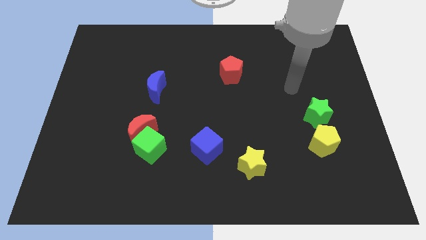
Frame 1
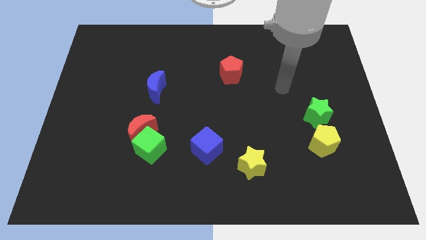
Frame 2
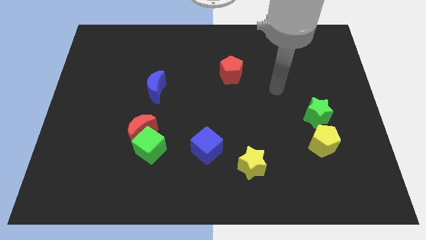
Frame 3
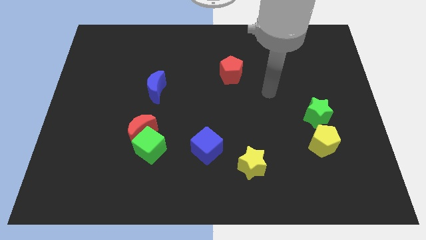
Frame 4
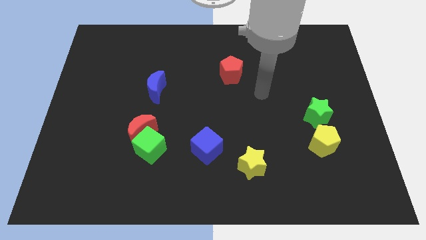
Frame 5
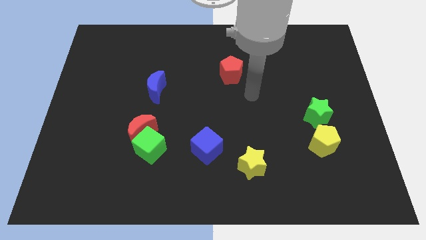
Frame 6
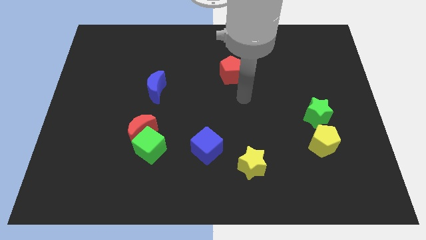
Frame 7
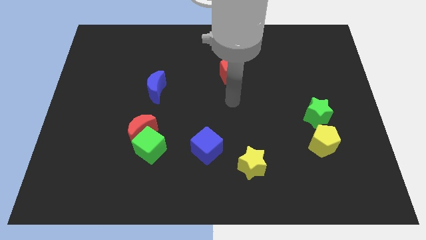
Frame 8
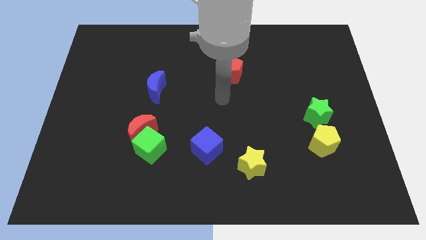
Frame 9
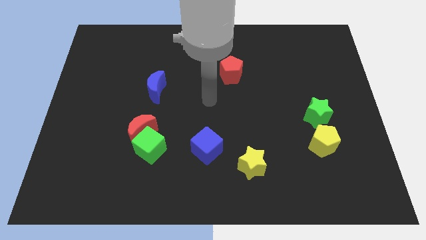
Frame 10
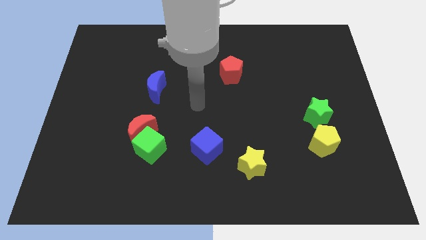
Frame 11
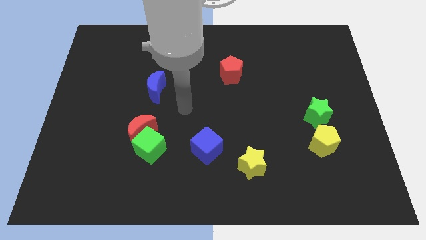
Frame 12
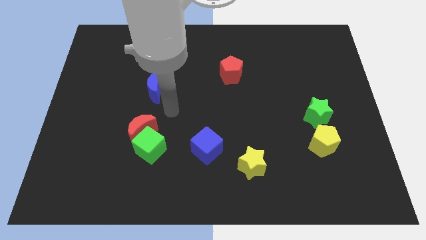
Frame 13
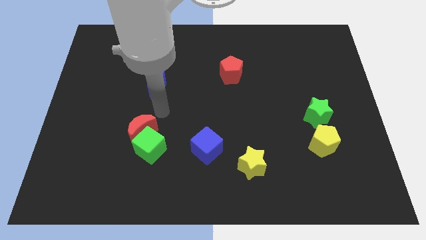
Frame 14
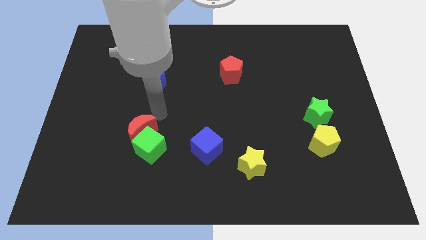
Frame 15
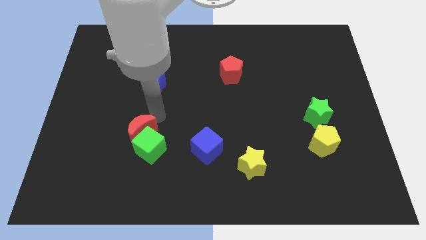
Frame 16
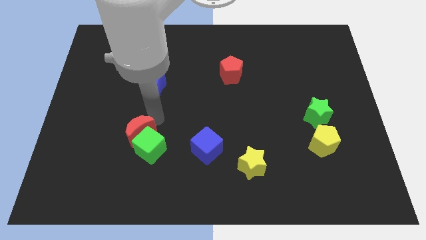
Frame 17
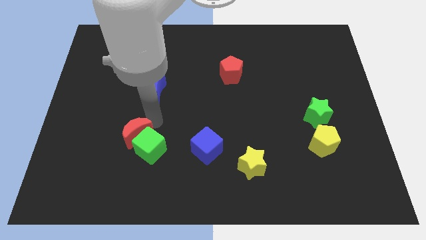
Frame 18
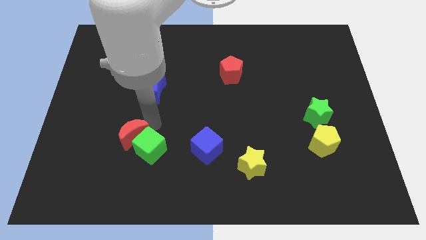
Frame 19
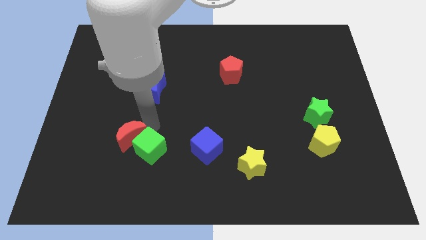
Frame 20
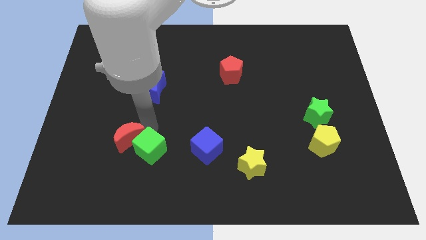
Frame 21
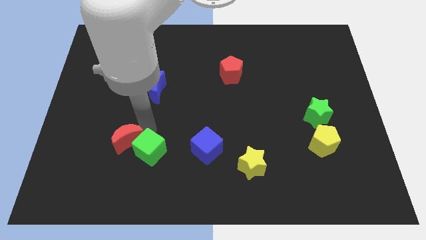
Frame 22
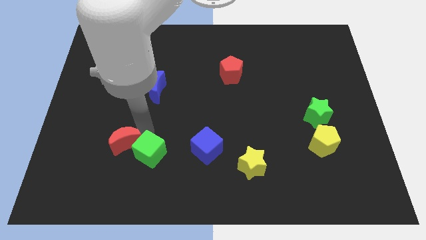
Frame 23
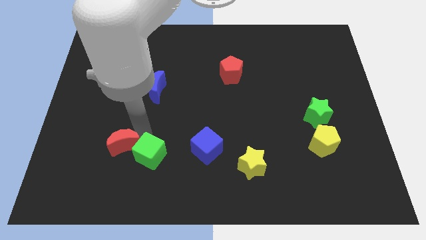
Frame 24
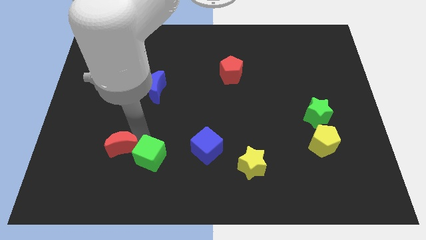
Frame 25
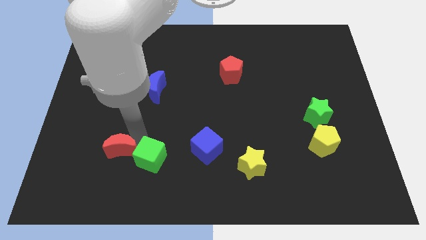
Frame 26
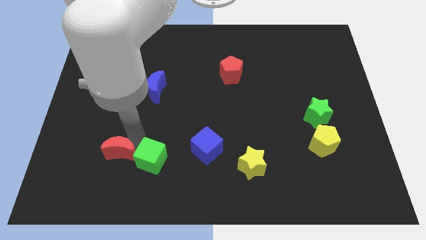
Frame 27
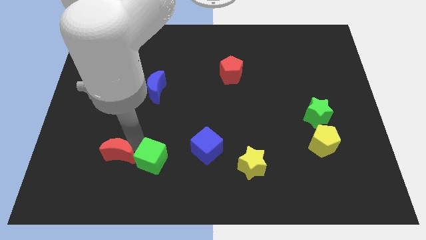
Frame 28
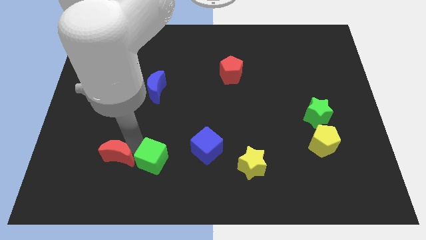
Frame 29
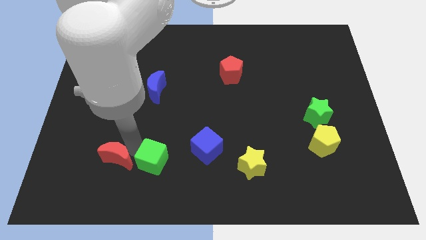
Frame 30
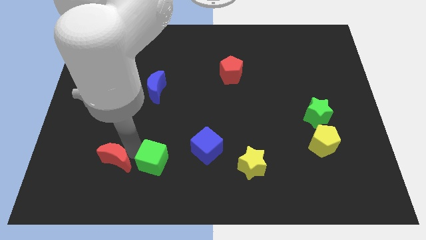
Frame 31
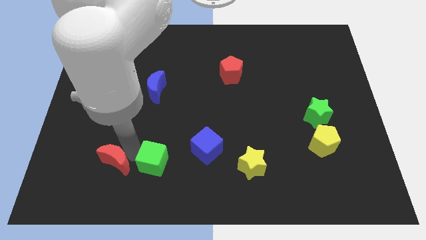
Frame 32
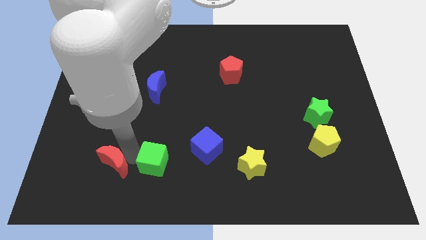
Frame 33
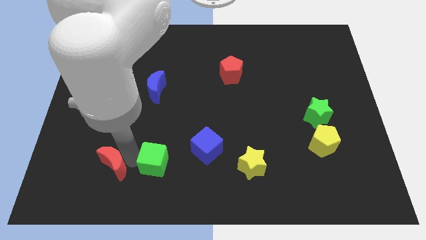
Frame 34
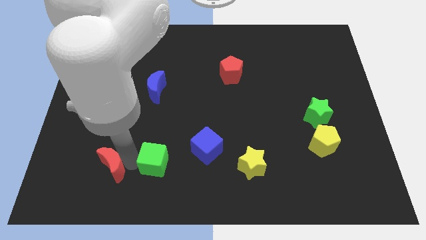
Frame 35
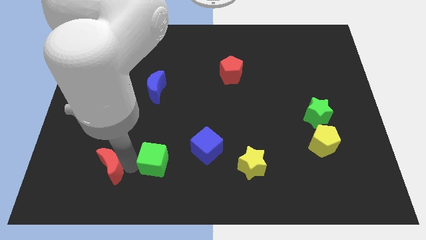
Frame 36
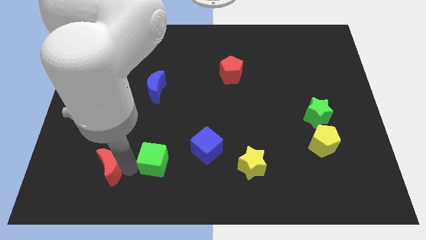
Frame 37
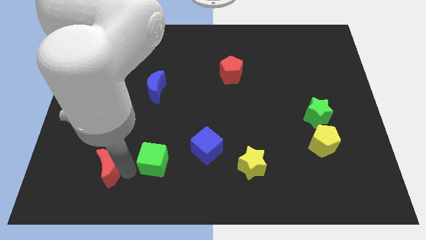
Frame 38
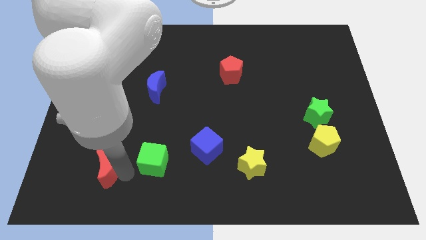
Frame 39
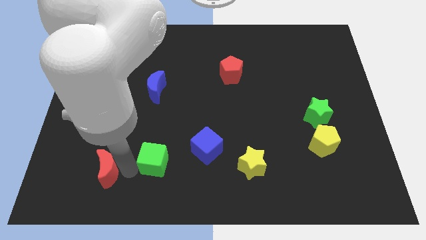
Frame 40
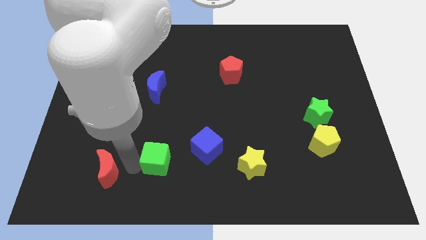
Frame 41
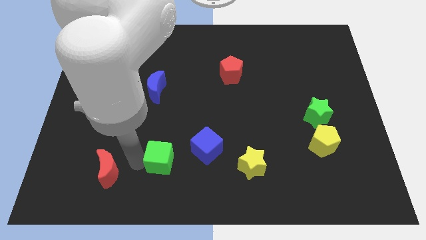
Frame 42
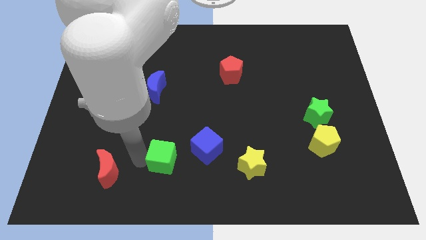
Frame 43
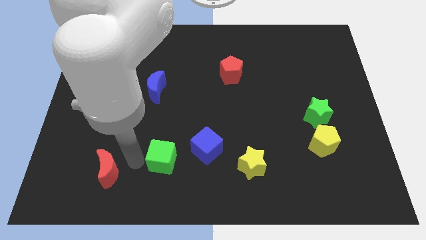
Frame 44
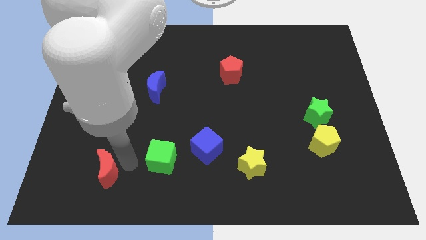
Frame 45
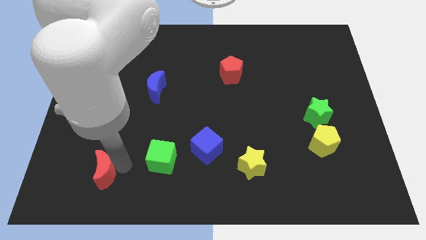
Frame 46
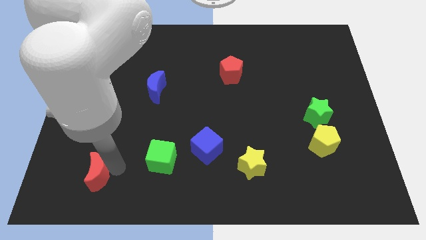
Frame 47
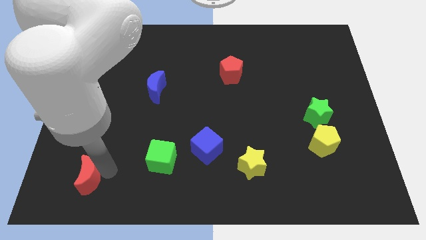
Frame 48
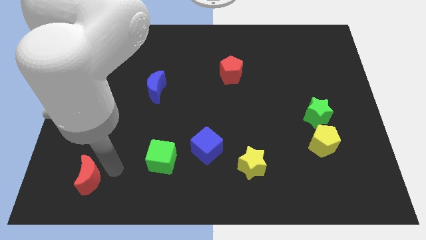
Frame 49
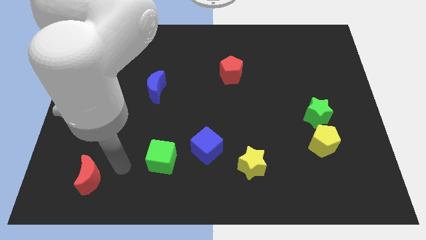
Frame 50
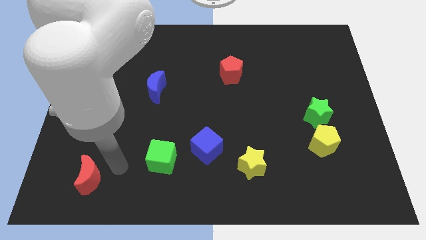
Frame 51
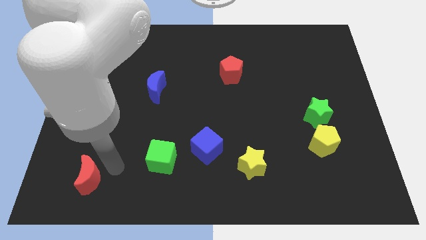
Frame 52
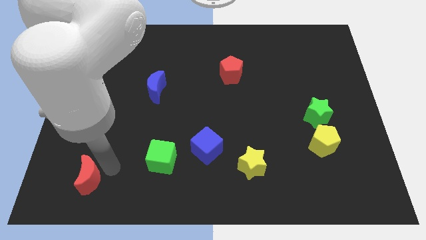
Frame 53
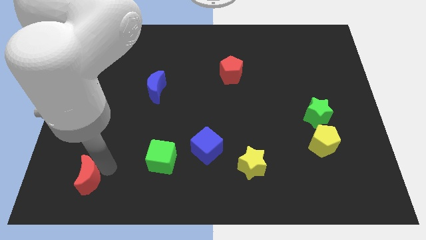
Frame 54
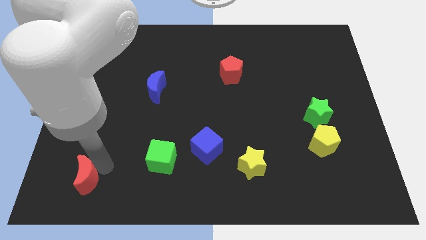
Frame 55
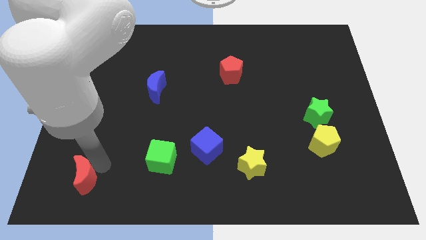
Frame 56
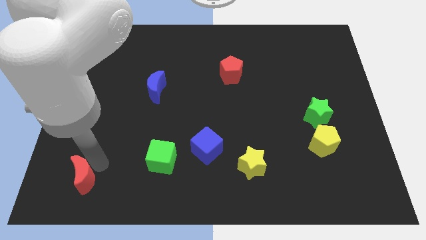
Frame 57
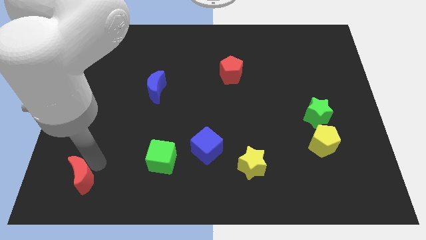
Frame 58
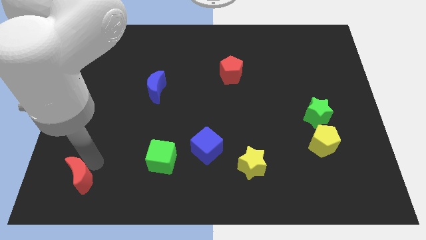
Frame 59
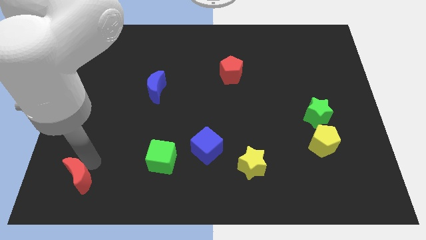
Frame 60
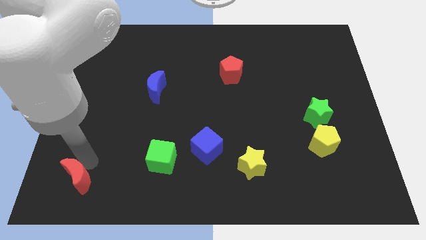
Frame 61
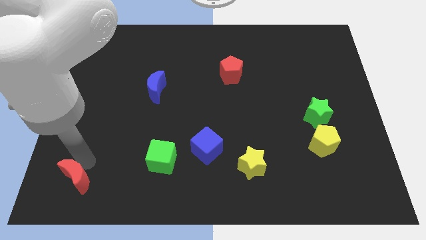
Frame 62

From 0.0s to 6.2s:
move the red moon to the bottom left

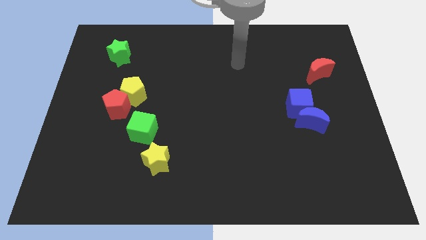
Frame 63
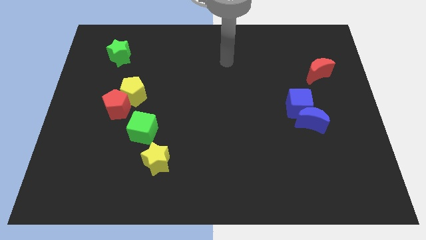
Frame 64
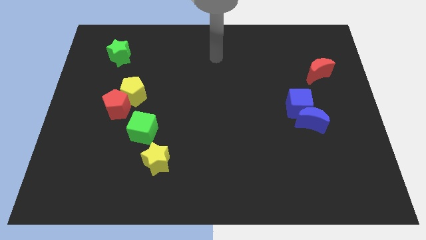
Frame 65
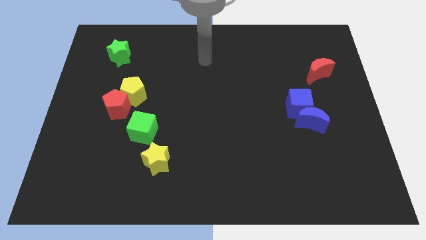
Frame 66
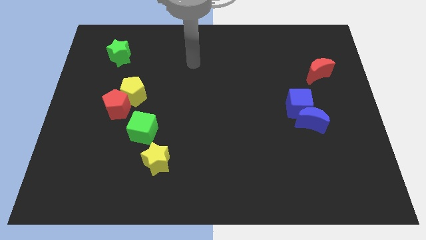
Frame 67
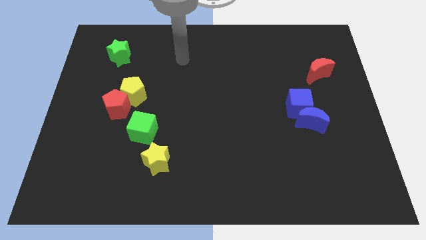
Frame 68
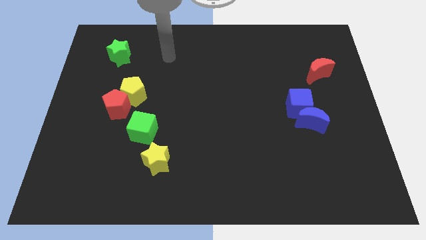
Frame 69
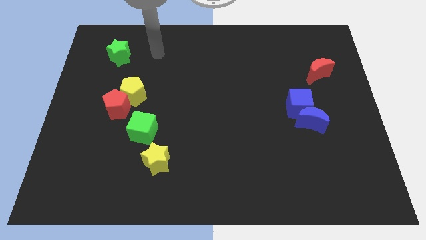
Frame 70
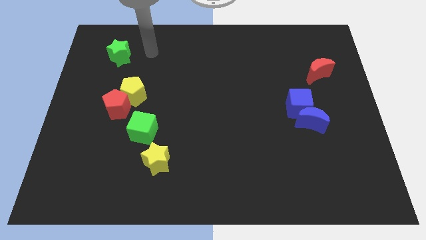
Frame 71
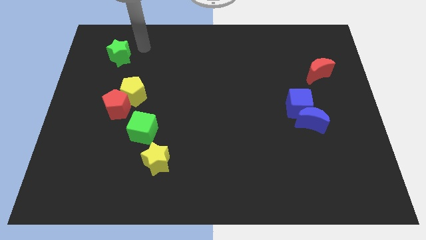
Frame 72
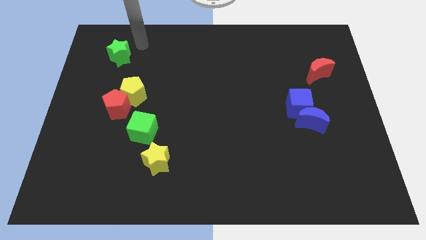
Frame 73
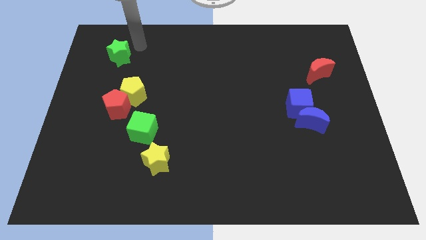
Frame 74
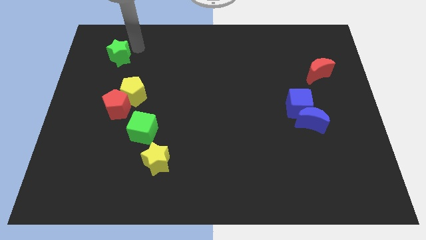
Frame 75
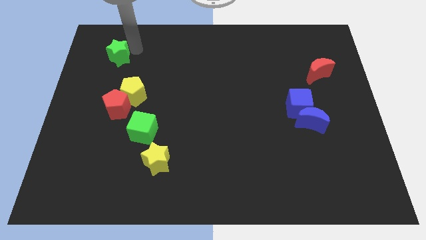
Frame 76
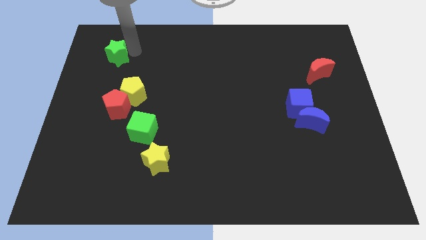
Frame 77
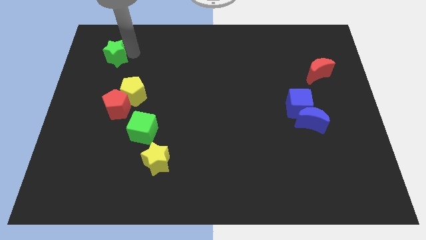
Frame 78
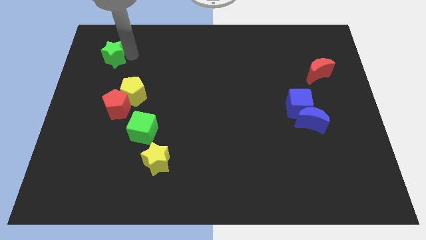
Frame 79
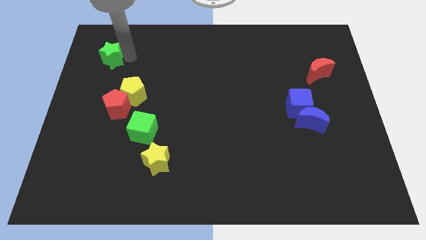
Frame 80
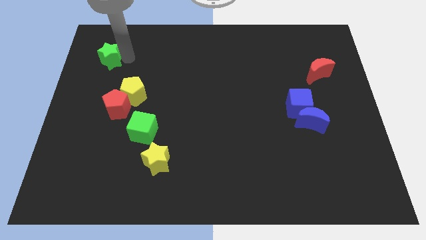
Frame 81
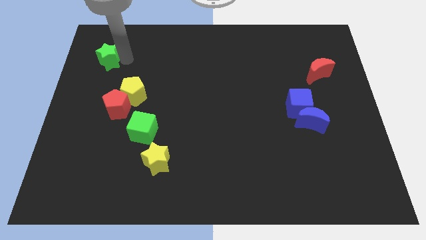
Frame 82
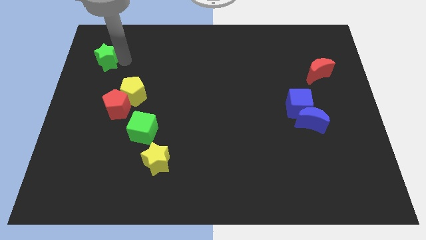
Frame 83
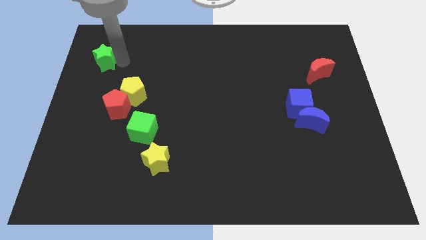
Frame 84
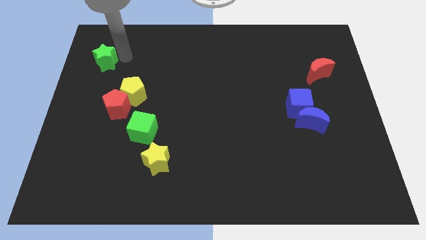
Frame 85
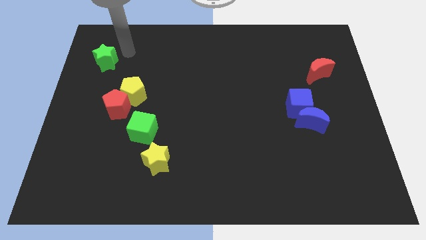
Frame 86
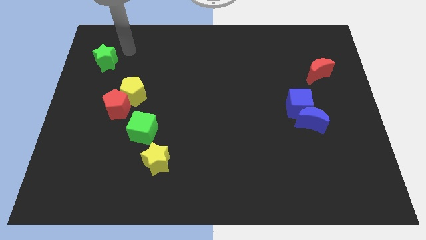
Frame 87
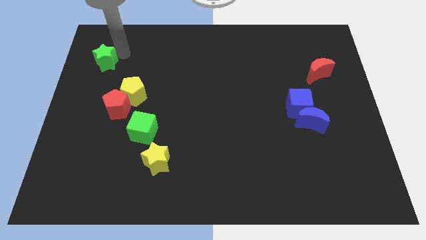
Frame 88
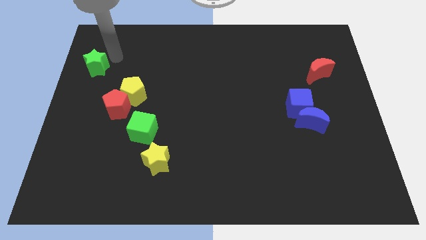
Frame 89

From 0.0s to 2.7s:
put the green star to the center left
